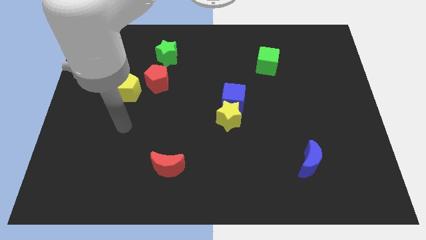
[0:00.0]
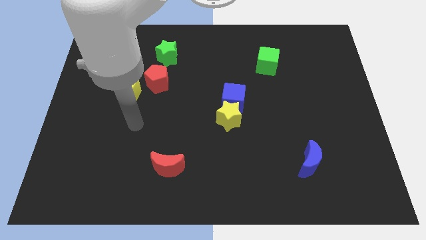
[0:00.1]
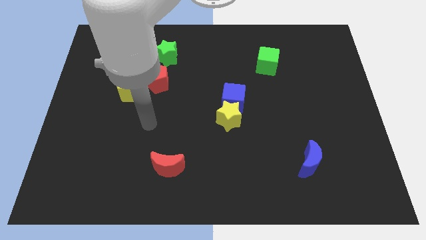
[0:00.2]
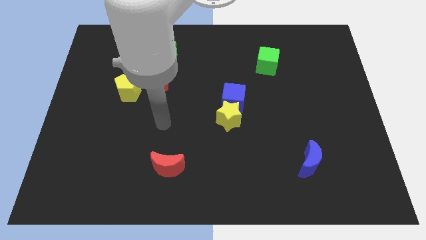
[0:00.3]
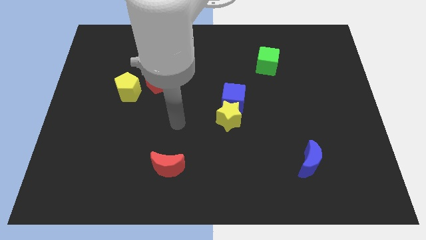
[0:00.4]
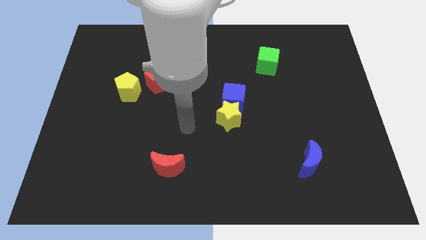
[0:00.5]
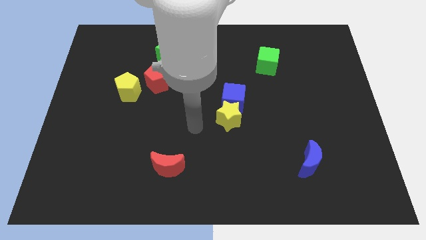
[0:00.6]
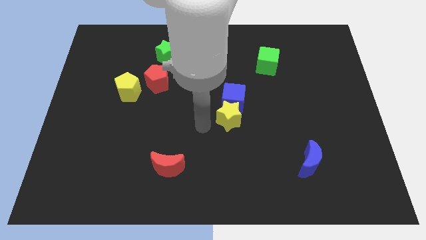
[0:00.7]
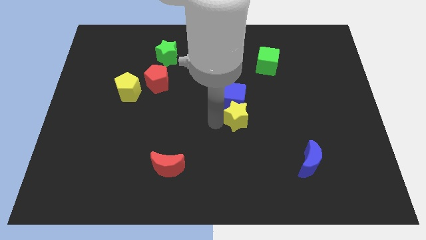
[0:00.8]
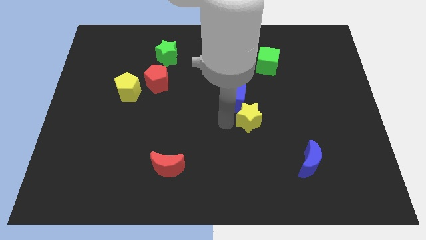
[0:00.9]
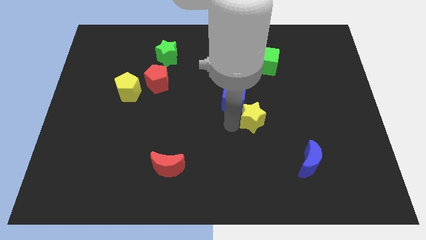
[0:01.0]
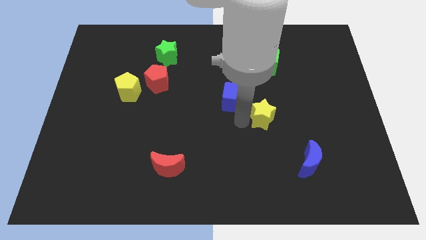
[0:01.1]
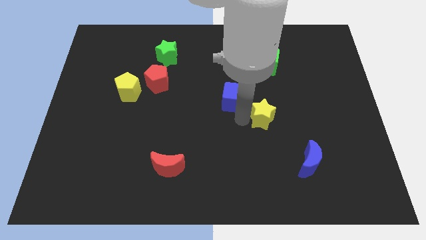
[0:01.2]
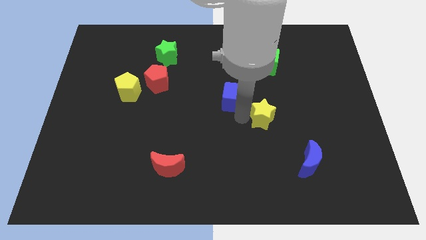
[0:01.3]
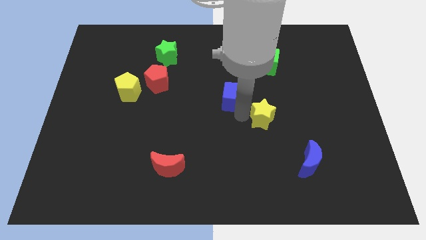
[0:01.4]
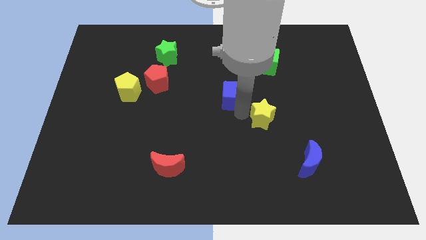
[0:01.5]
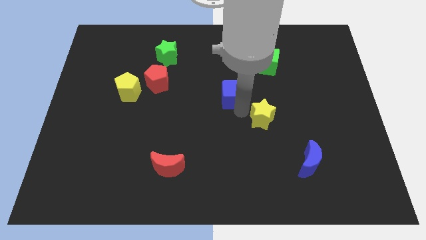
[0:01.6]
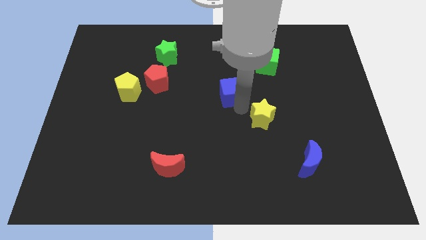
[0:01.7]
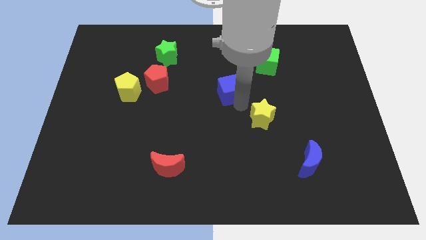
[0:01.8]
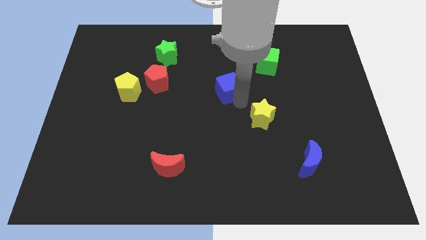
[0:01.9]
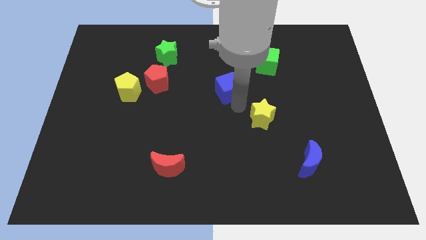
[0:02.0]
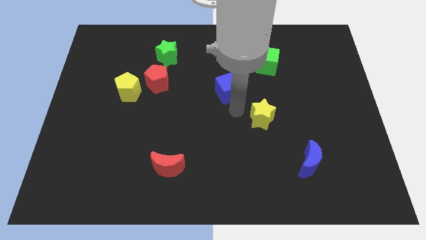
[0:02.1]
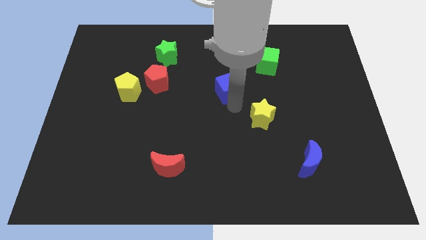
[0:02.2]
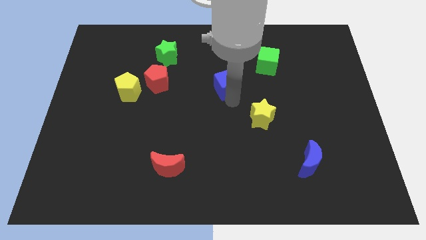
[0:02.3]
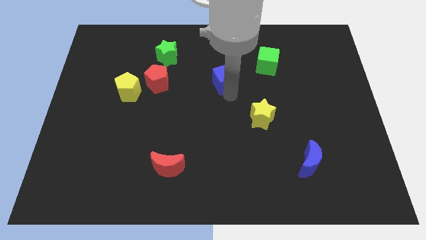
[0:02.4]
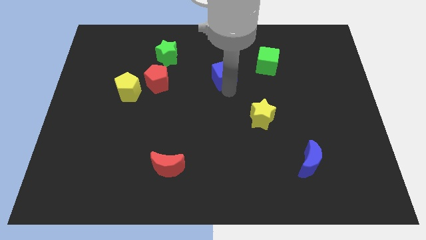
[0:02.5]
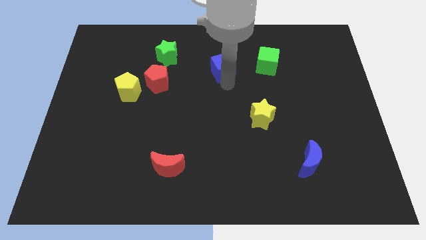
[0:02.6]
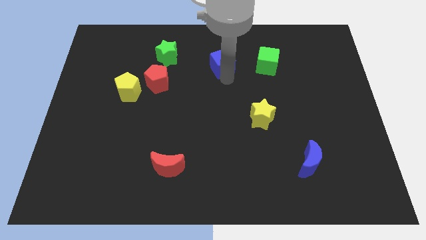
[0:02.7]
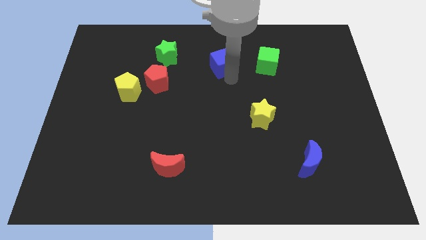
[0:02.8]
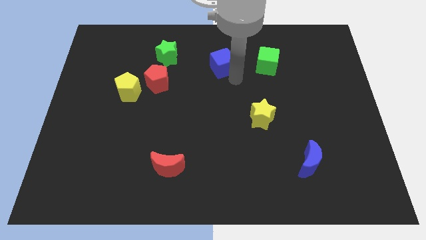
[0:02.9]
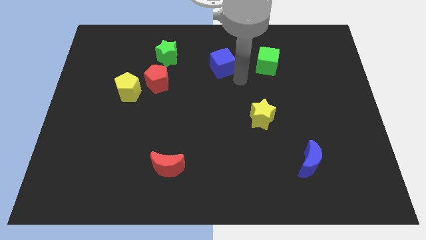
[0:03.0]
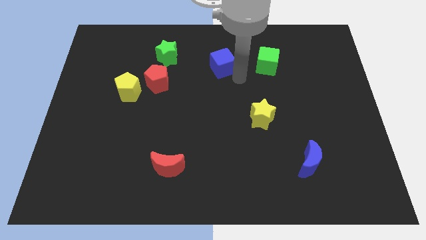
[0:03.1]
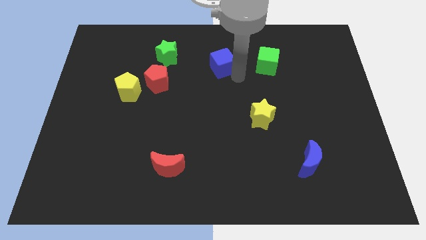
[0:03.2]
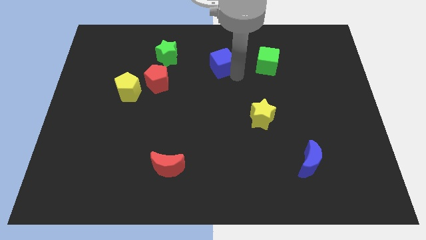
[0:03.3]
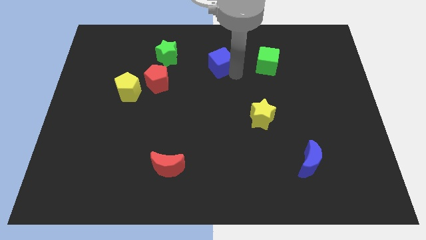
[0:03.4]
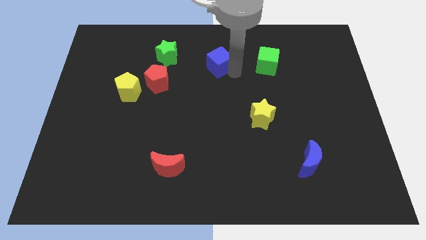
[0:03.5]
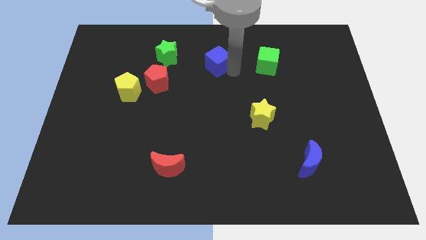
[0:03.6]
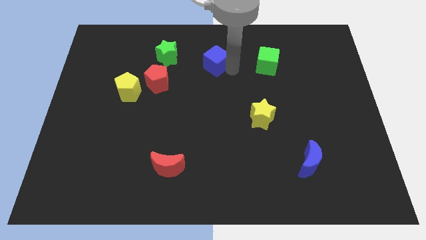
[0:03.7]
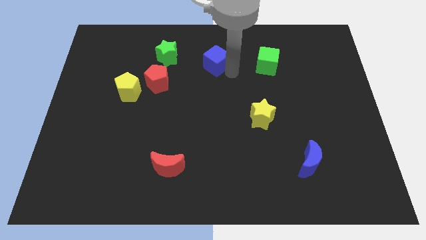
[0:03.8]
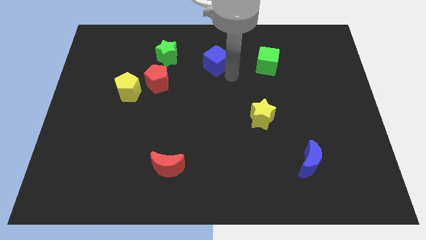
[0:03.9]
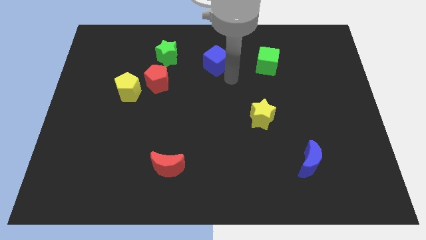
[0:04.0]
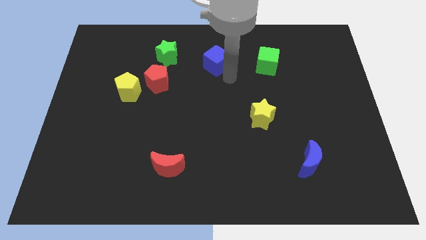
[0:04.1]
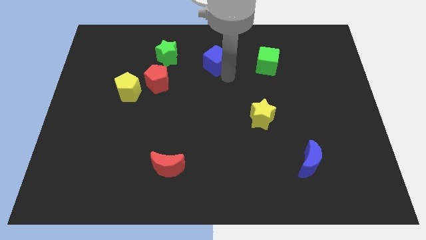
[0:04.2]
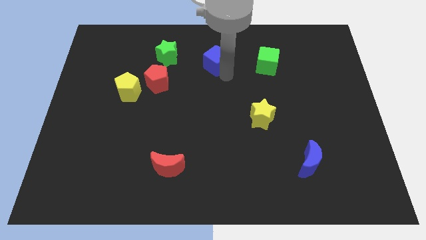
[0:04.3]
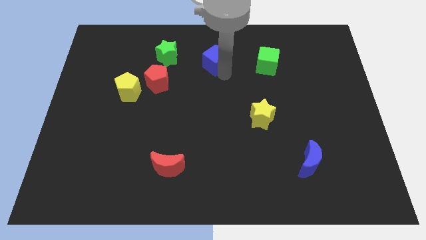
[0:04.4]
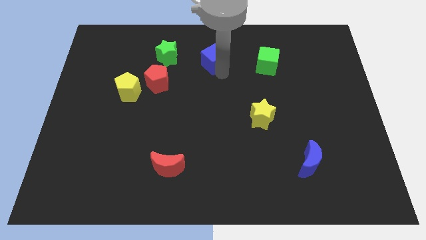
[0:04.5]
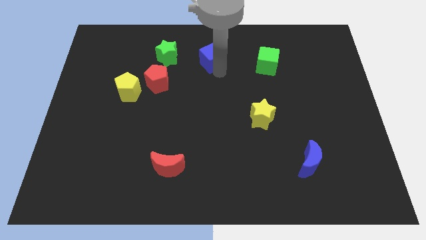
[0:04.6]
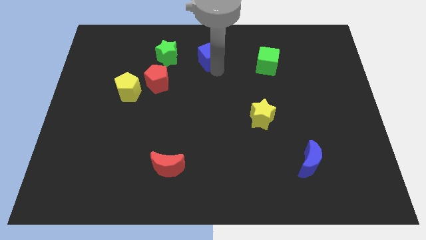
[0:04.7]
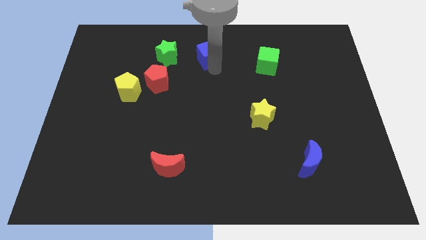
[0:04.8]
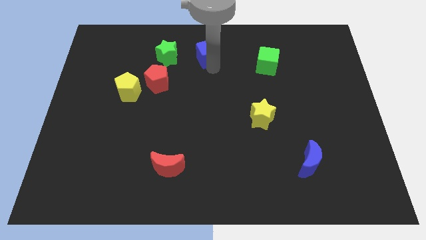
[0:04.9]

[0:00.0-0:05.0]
move the blue cube to the top side

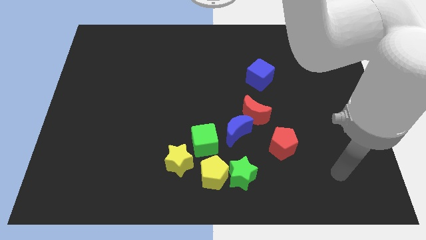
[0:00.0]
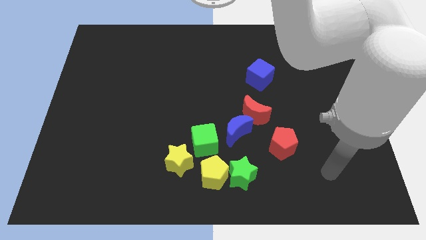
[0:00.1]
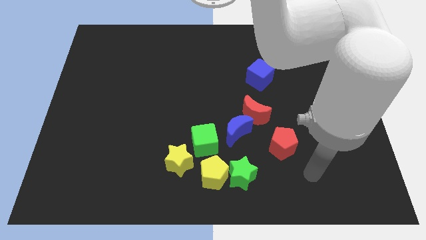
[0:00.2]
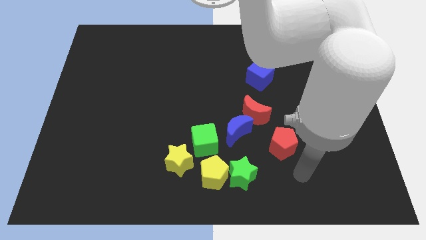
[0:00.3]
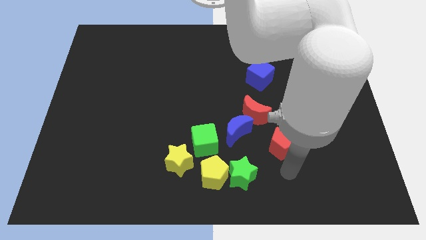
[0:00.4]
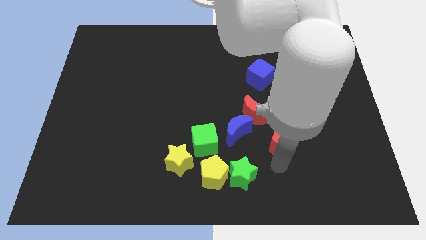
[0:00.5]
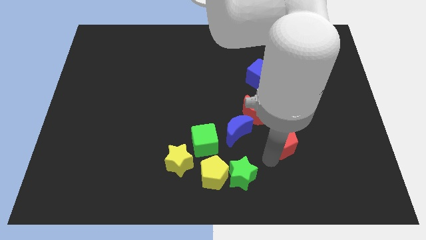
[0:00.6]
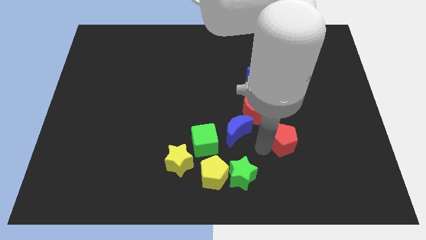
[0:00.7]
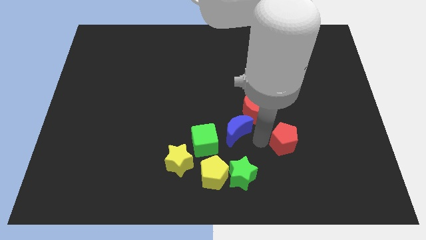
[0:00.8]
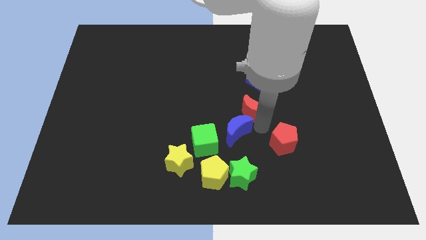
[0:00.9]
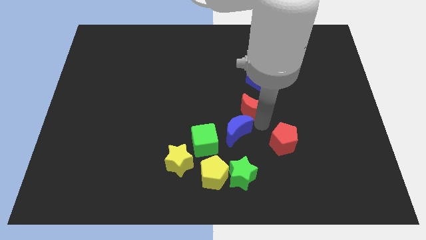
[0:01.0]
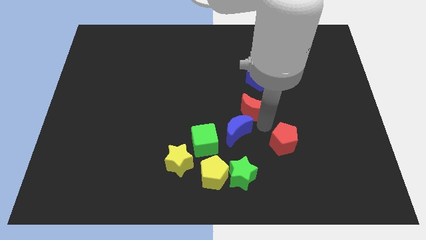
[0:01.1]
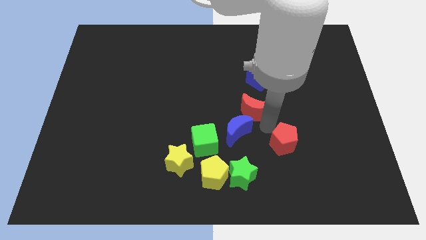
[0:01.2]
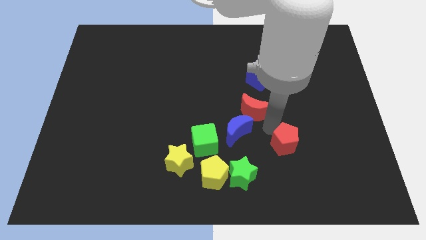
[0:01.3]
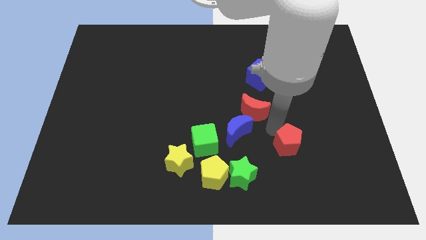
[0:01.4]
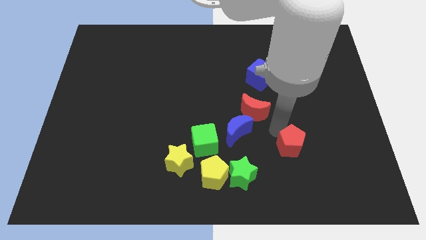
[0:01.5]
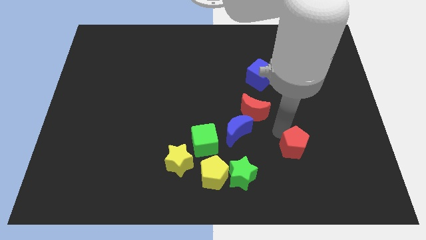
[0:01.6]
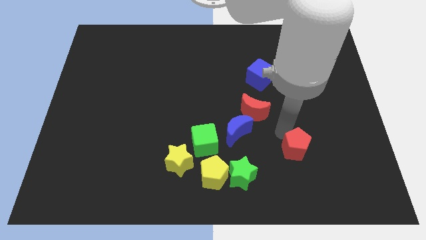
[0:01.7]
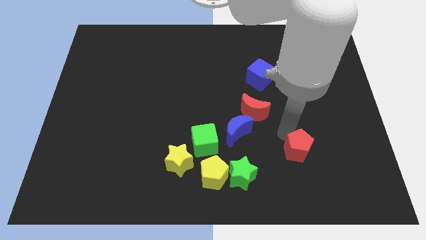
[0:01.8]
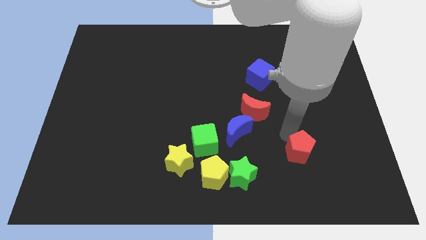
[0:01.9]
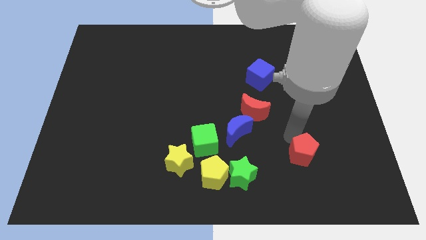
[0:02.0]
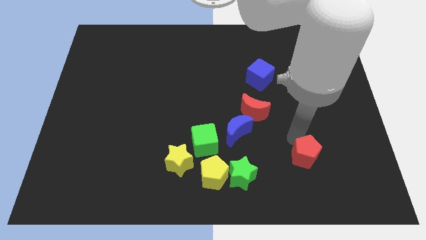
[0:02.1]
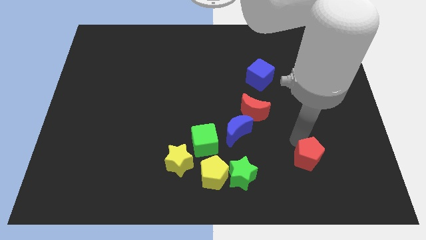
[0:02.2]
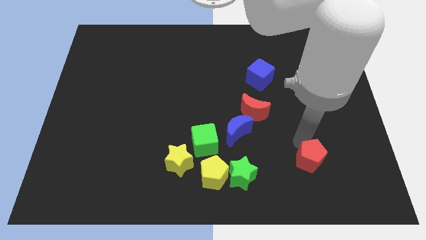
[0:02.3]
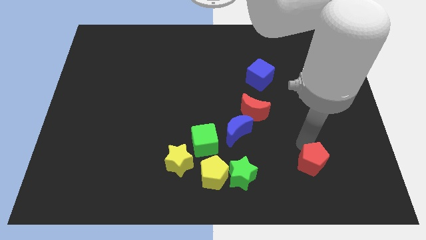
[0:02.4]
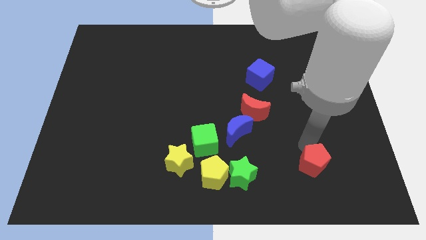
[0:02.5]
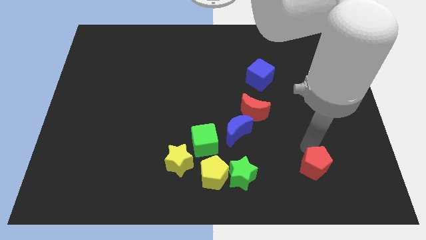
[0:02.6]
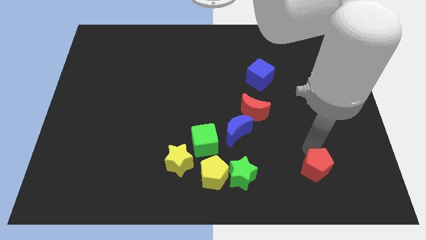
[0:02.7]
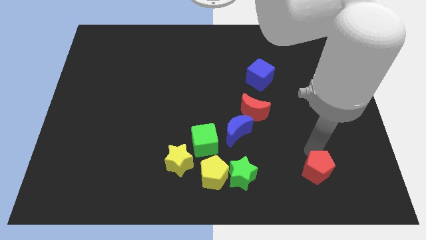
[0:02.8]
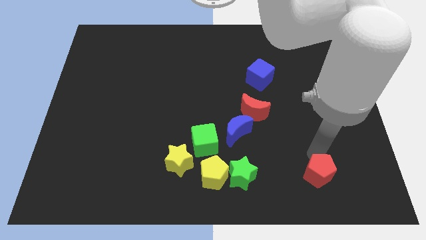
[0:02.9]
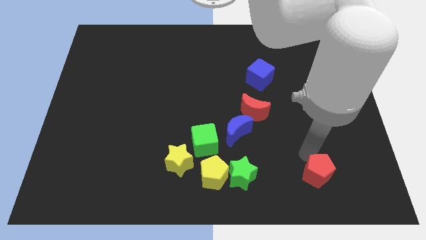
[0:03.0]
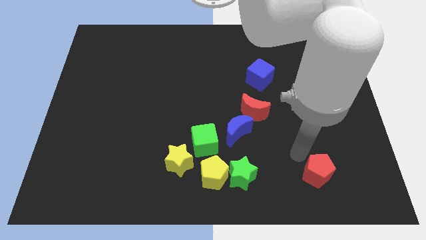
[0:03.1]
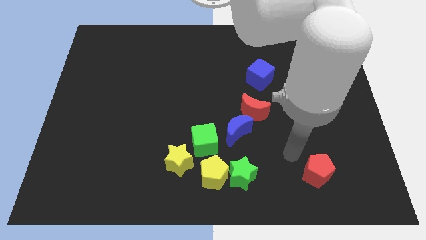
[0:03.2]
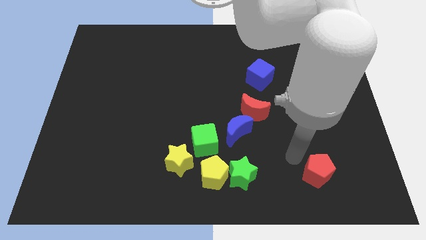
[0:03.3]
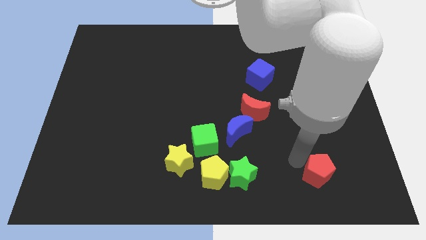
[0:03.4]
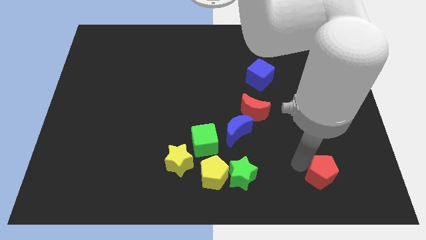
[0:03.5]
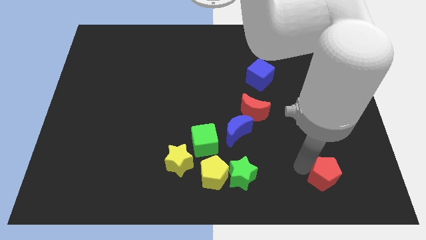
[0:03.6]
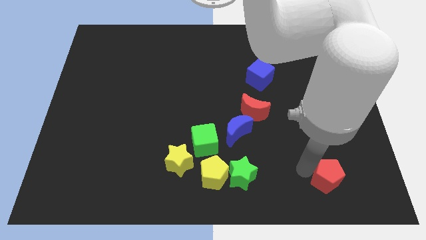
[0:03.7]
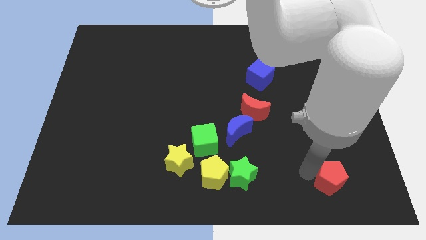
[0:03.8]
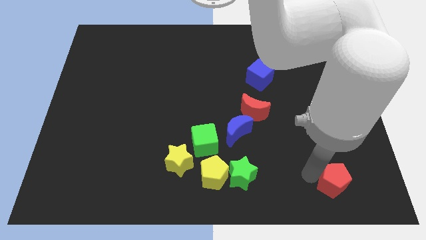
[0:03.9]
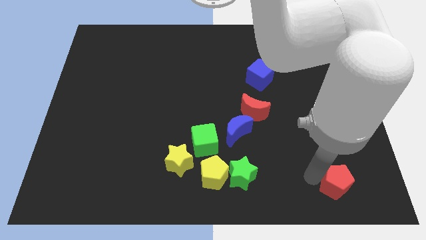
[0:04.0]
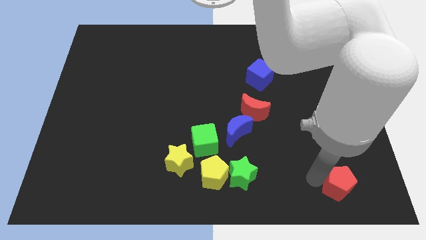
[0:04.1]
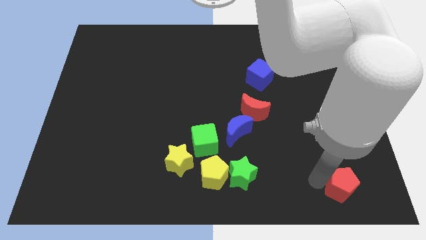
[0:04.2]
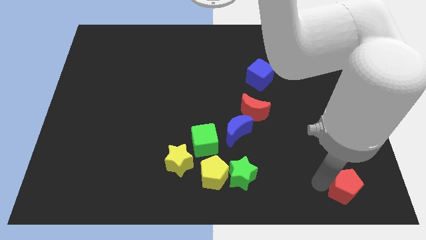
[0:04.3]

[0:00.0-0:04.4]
move the red pentagon to the lower right corner
